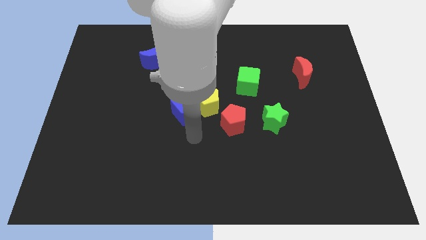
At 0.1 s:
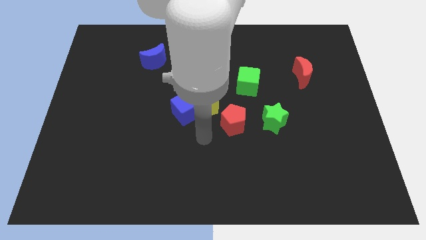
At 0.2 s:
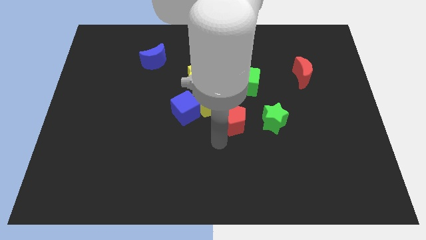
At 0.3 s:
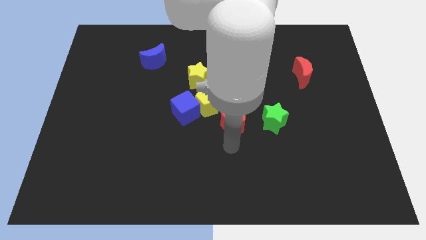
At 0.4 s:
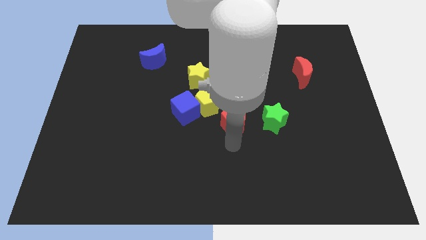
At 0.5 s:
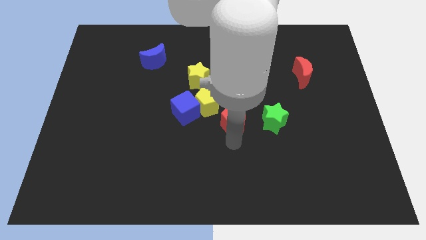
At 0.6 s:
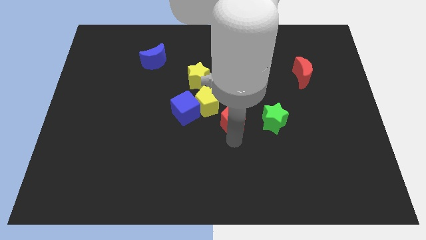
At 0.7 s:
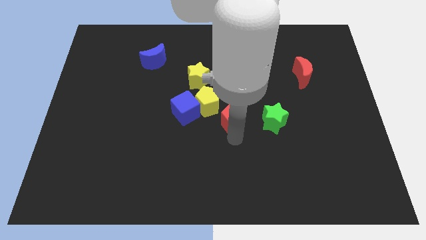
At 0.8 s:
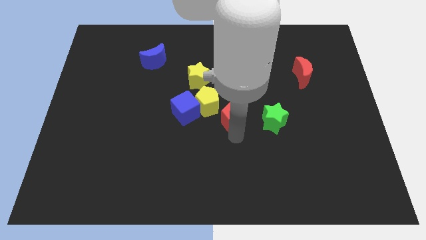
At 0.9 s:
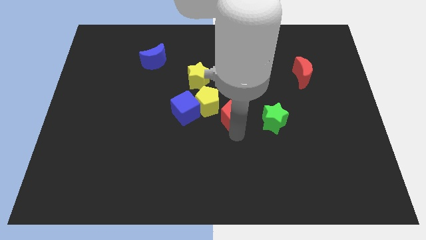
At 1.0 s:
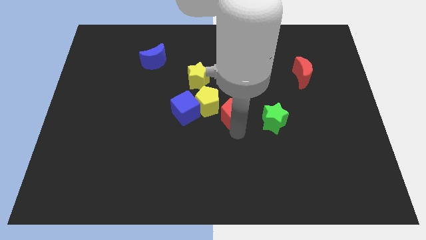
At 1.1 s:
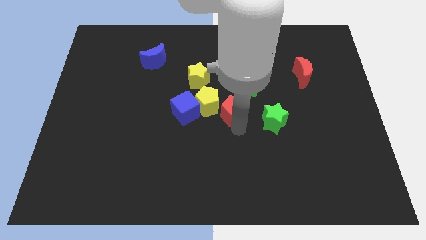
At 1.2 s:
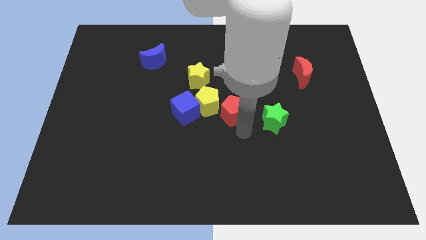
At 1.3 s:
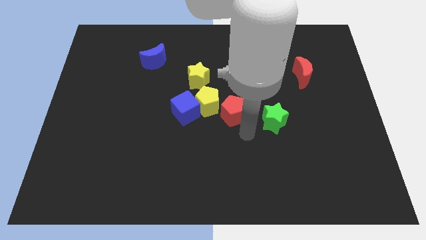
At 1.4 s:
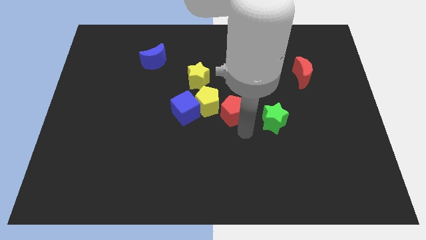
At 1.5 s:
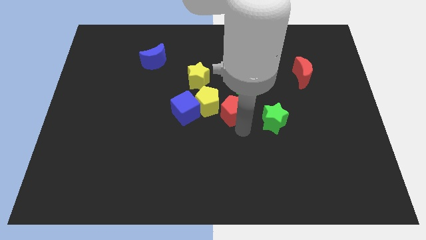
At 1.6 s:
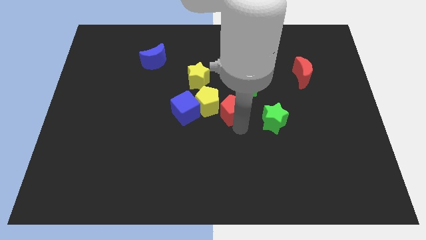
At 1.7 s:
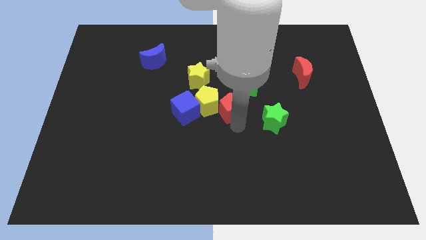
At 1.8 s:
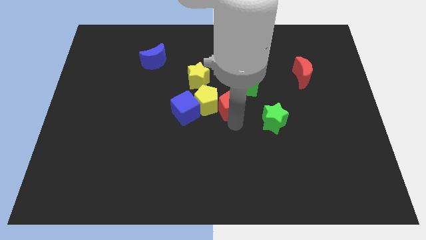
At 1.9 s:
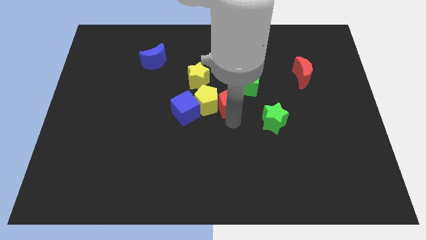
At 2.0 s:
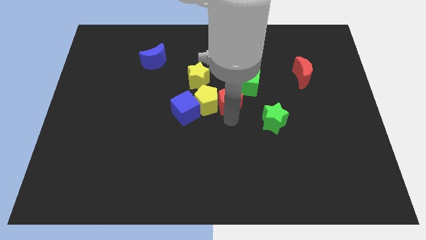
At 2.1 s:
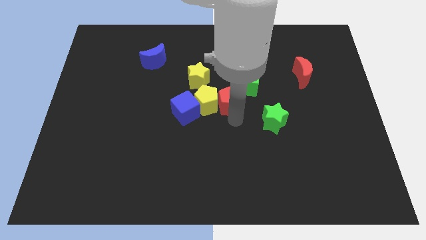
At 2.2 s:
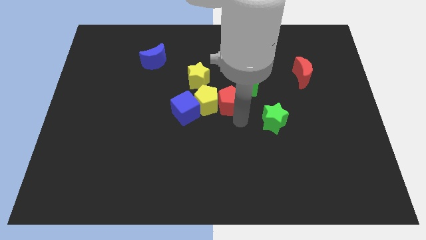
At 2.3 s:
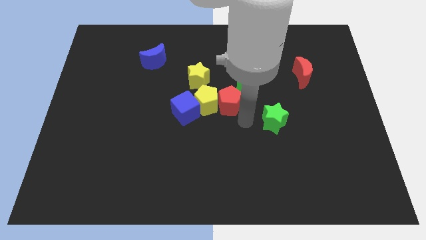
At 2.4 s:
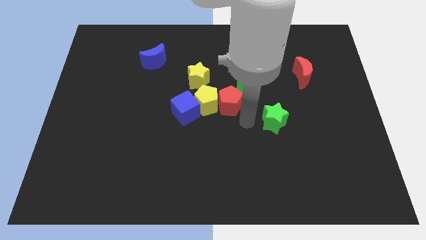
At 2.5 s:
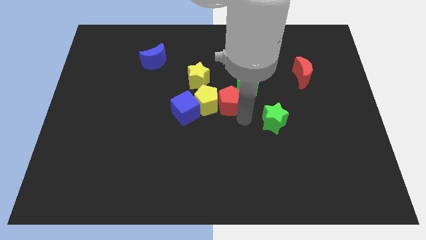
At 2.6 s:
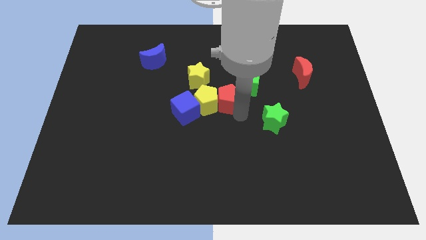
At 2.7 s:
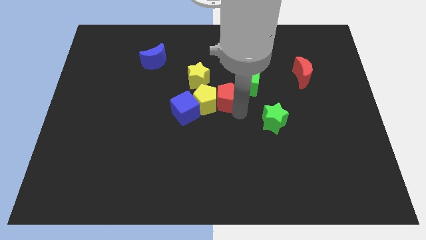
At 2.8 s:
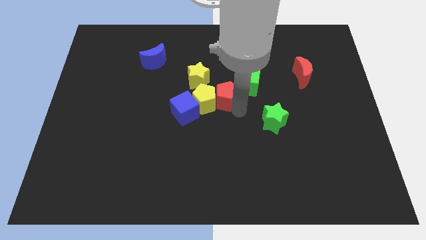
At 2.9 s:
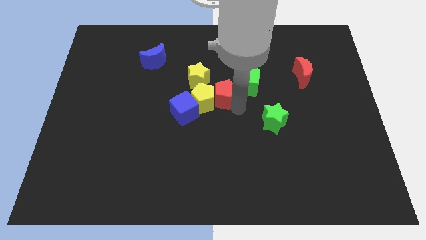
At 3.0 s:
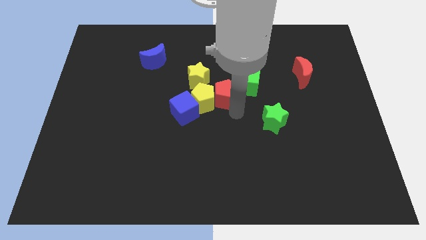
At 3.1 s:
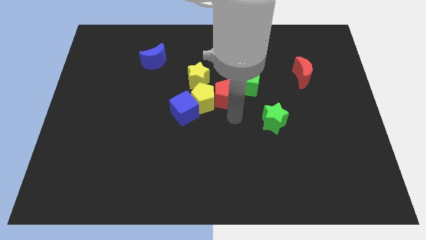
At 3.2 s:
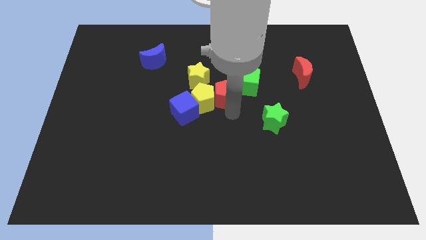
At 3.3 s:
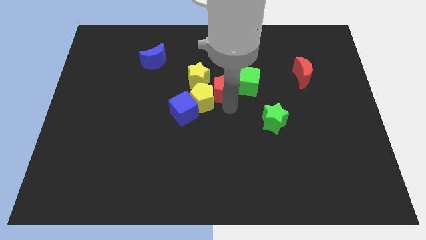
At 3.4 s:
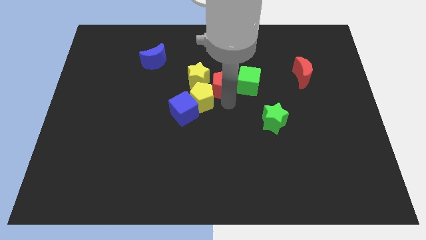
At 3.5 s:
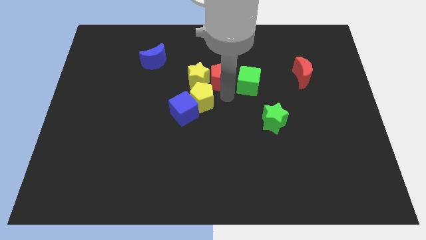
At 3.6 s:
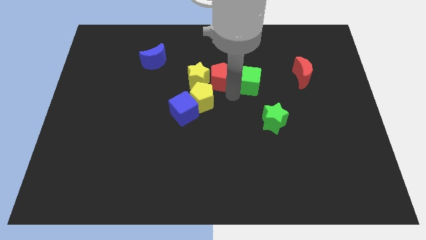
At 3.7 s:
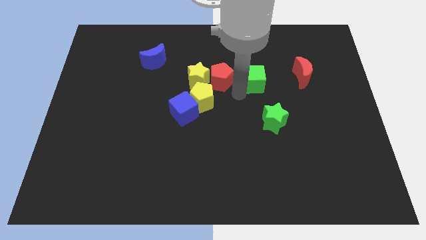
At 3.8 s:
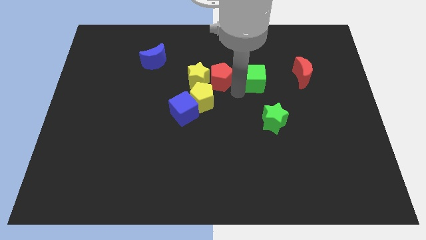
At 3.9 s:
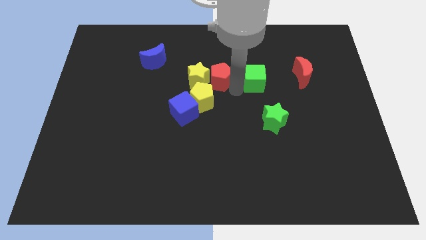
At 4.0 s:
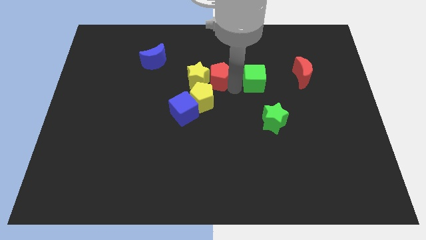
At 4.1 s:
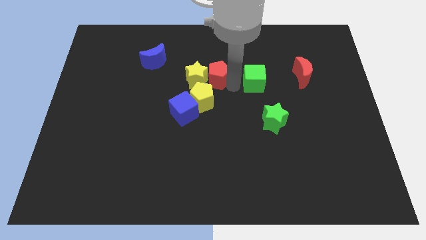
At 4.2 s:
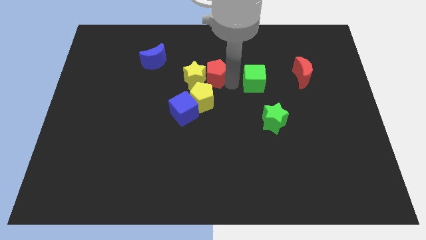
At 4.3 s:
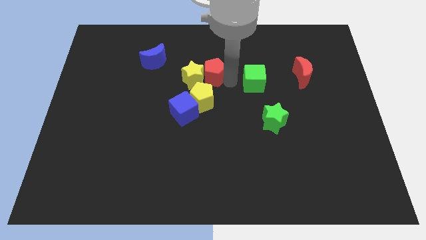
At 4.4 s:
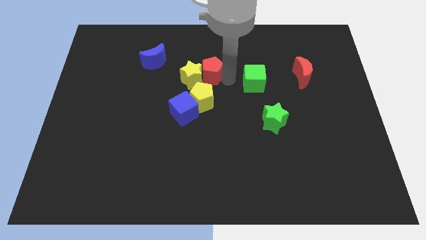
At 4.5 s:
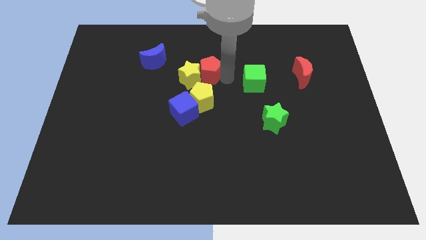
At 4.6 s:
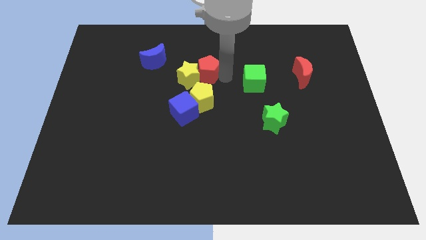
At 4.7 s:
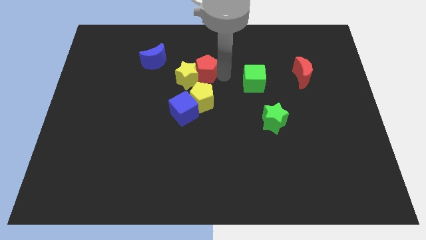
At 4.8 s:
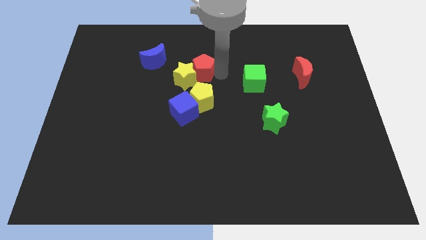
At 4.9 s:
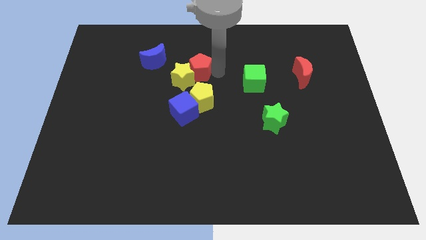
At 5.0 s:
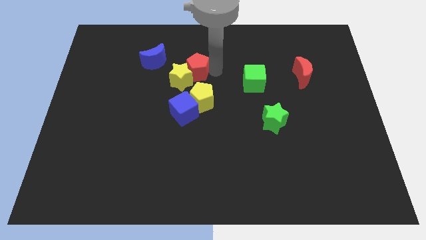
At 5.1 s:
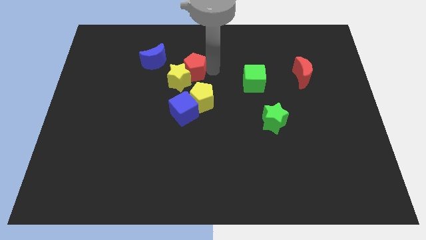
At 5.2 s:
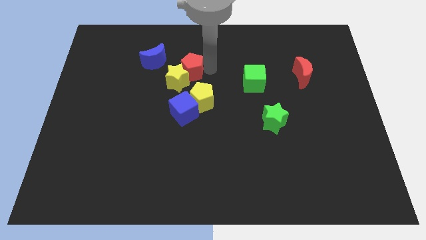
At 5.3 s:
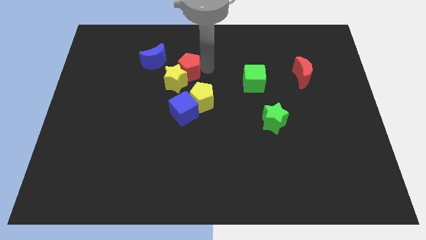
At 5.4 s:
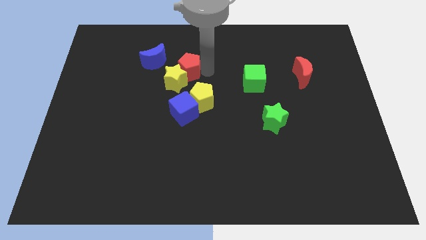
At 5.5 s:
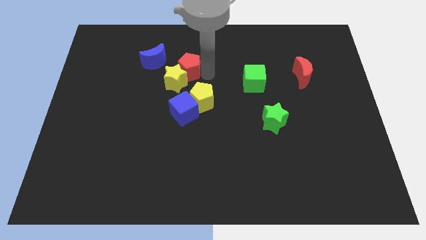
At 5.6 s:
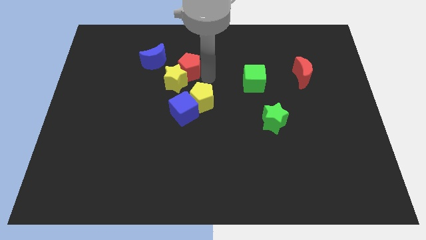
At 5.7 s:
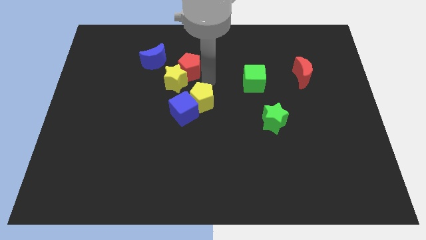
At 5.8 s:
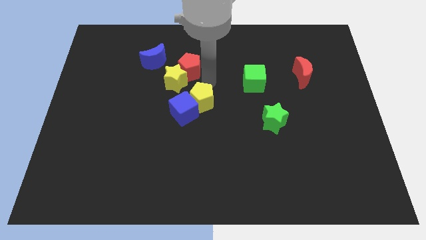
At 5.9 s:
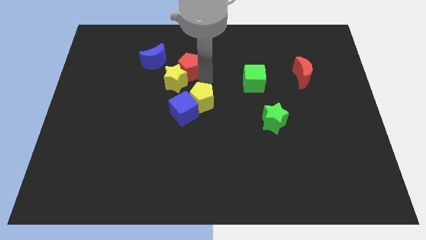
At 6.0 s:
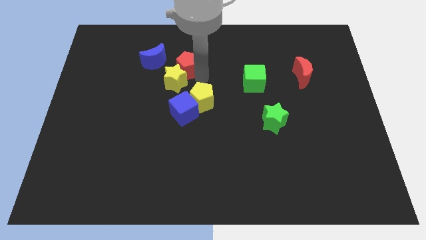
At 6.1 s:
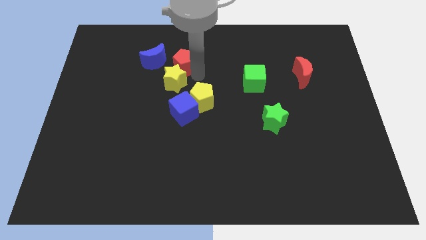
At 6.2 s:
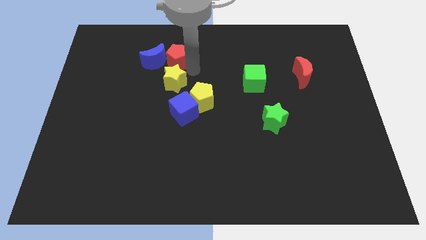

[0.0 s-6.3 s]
slide the red pentagon to the blue moon

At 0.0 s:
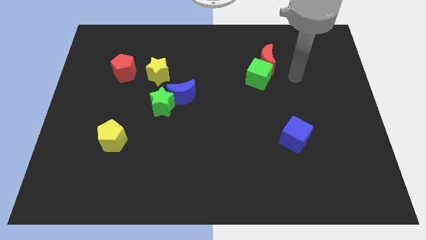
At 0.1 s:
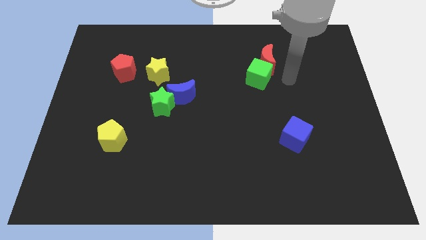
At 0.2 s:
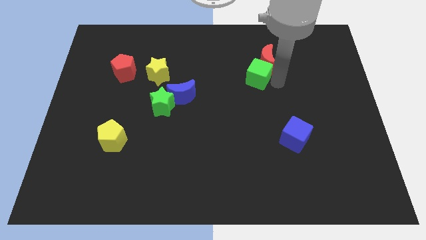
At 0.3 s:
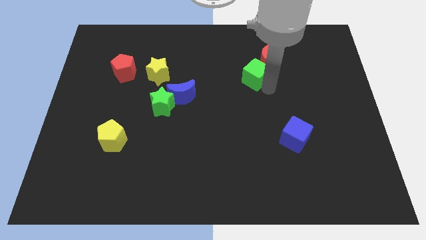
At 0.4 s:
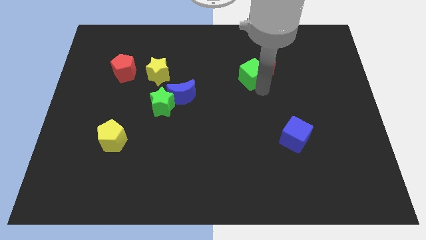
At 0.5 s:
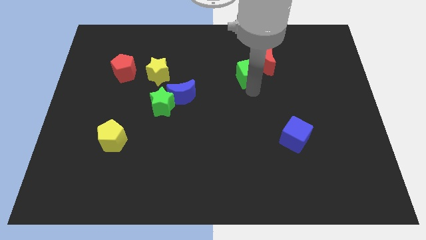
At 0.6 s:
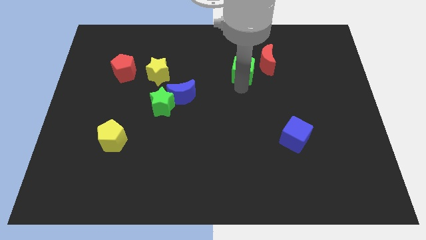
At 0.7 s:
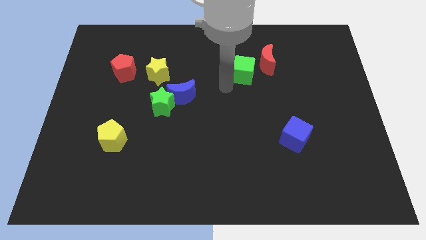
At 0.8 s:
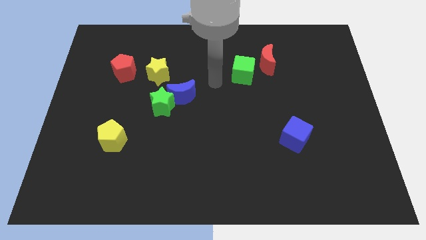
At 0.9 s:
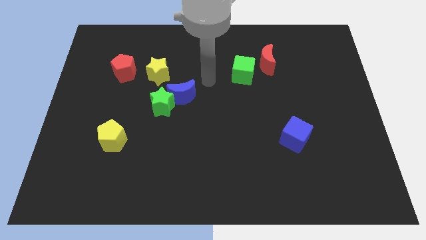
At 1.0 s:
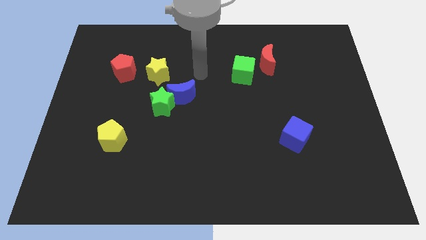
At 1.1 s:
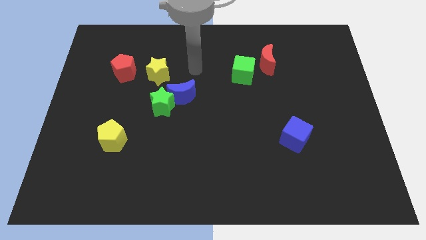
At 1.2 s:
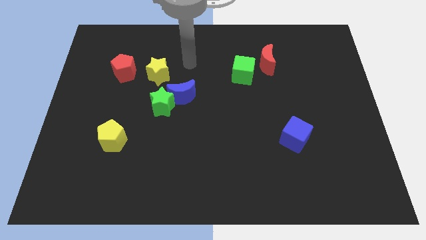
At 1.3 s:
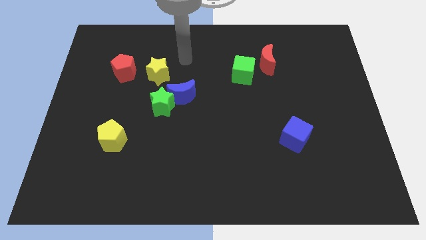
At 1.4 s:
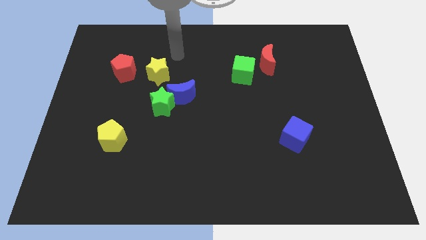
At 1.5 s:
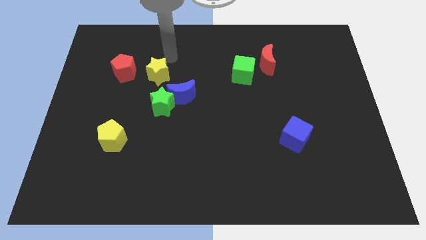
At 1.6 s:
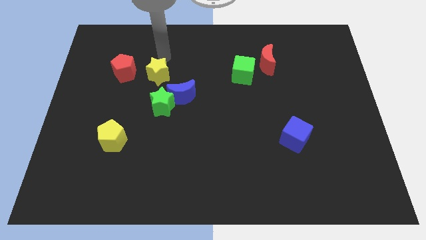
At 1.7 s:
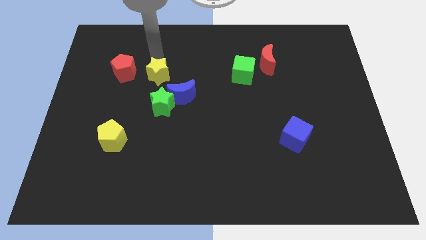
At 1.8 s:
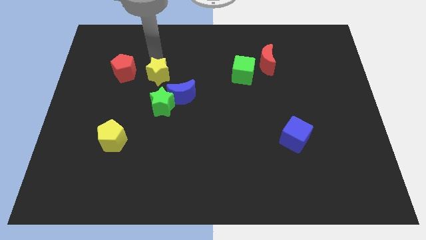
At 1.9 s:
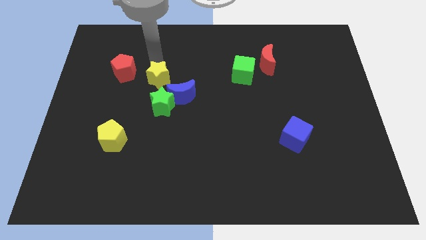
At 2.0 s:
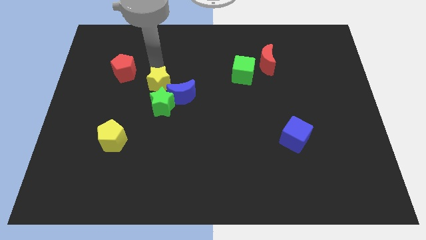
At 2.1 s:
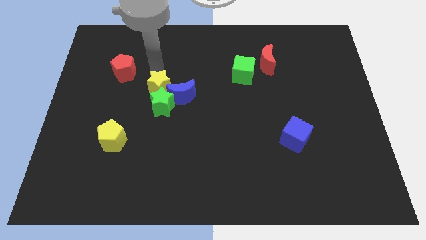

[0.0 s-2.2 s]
slide the yellow star next to the green star
